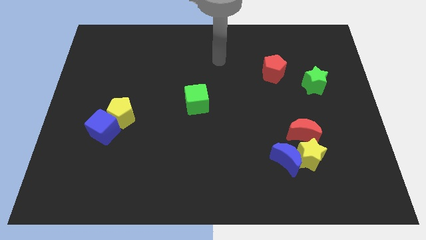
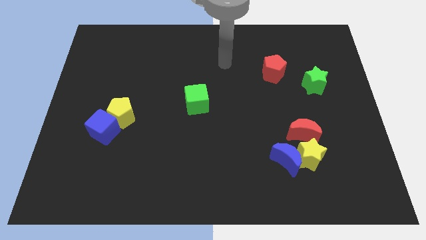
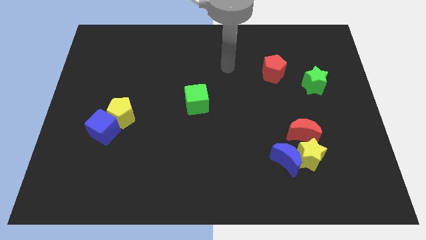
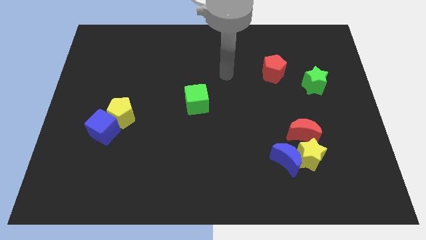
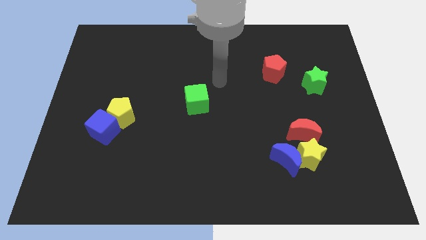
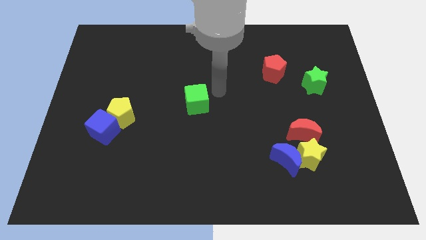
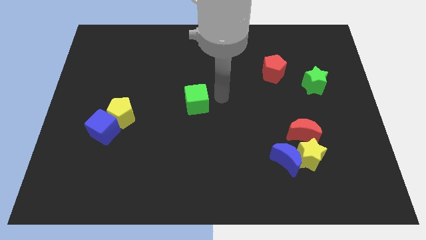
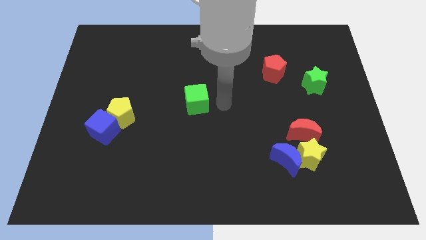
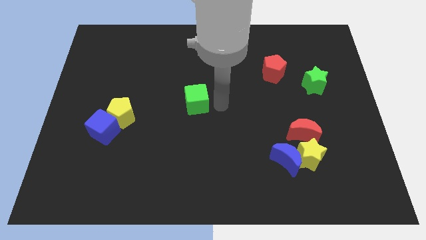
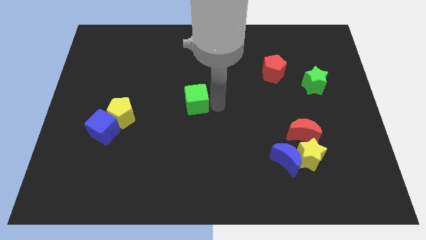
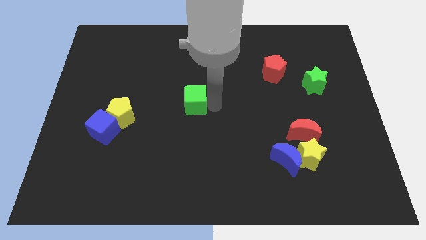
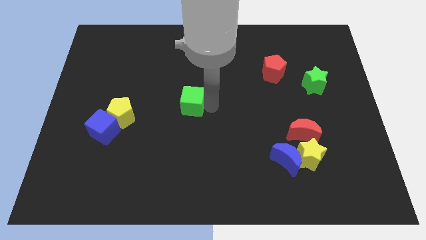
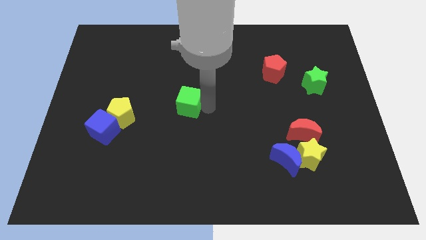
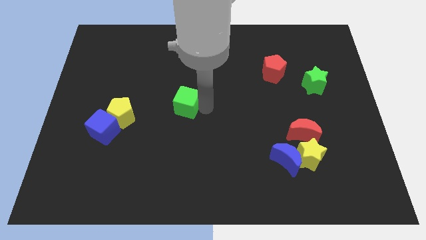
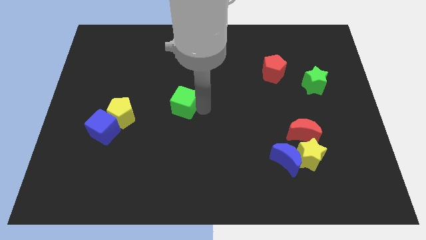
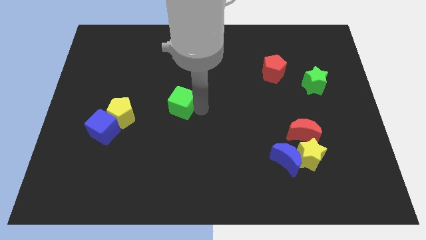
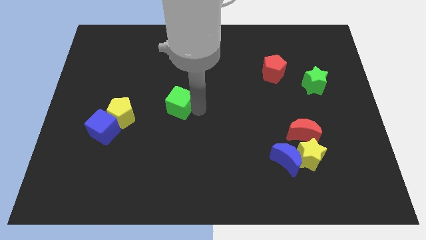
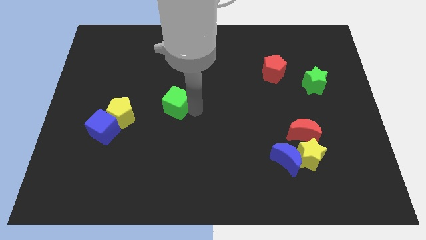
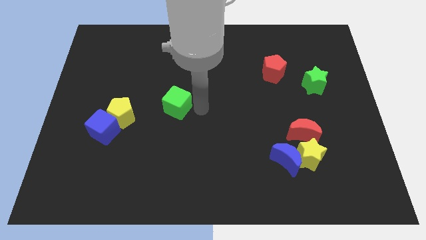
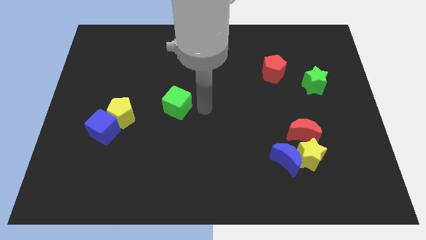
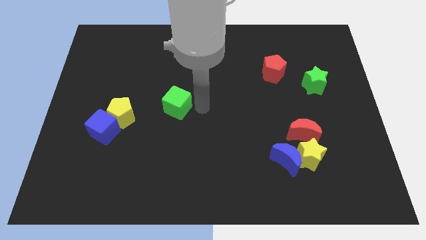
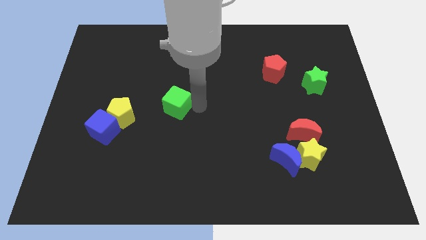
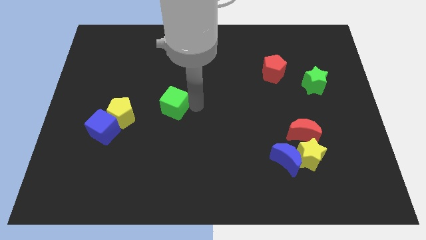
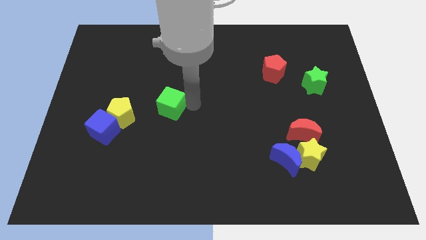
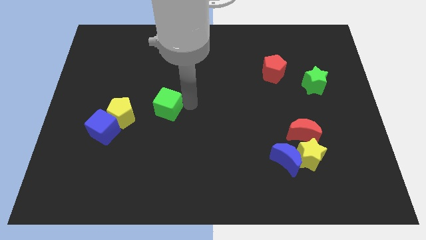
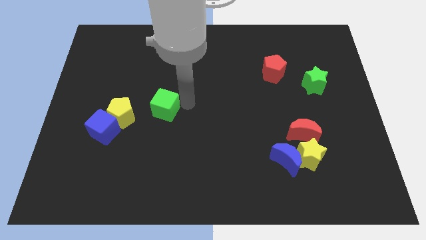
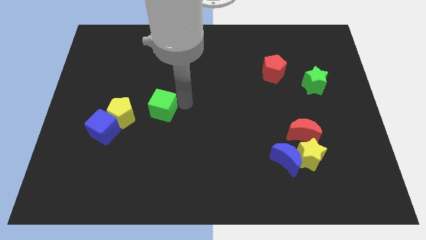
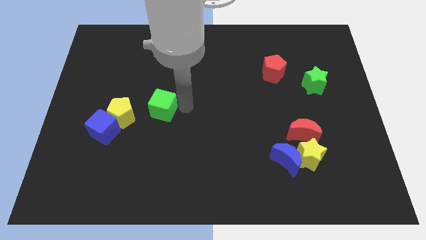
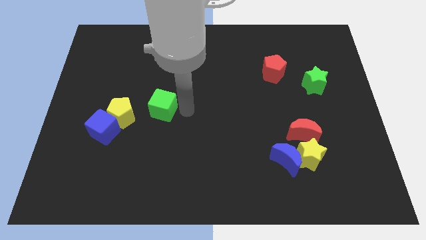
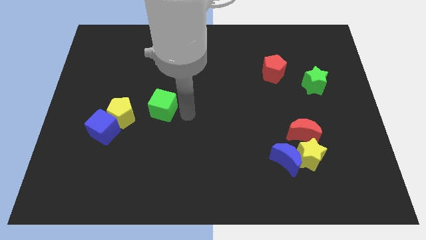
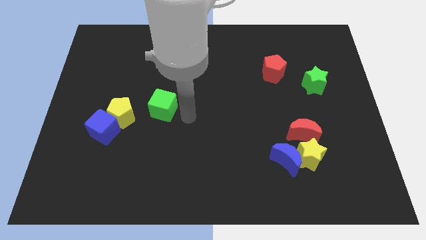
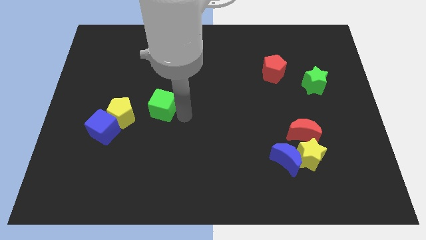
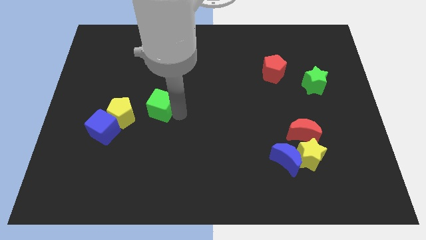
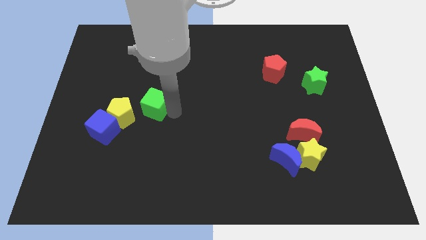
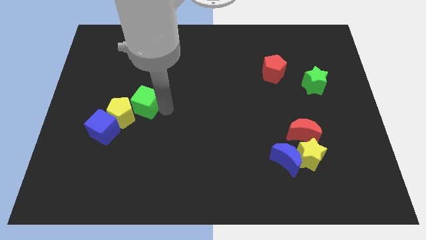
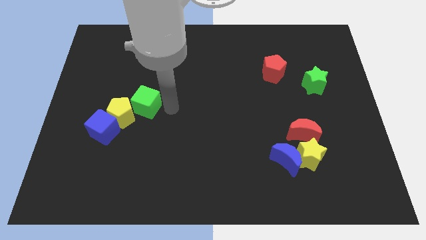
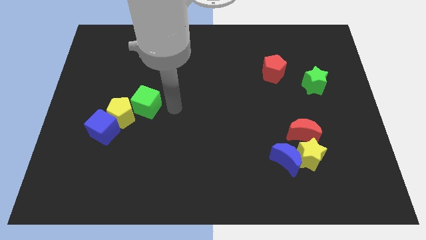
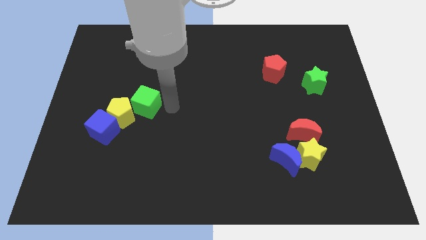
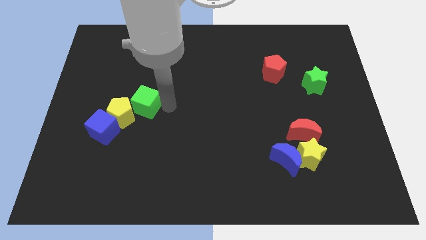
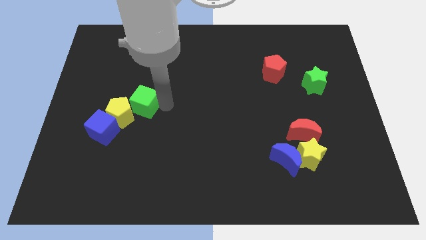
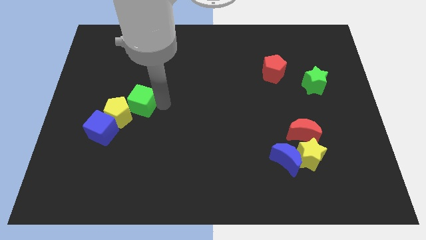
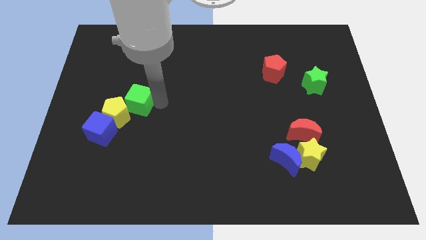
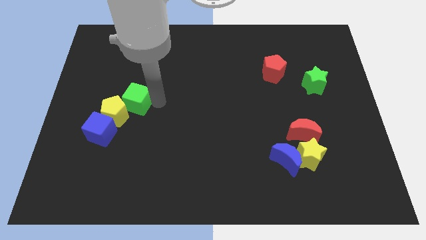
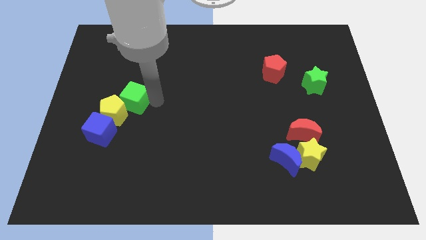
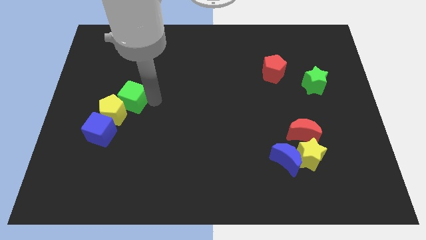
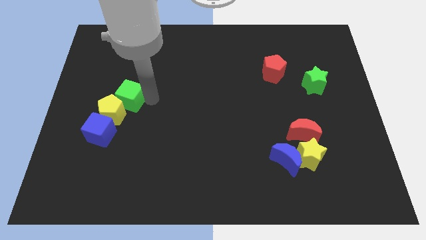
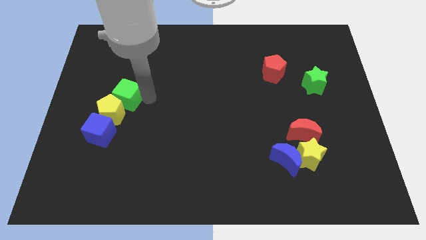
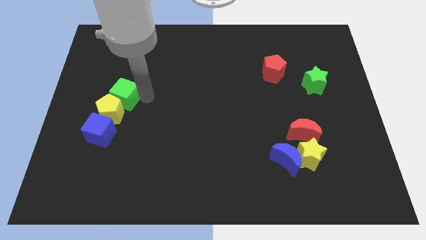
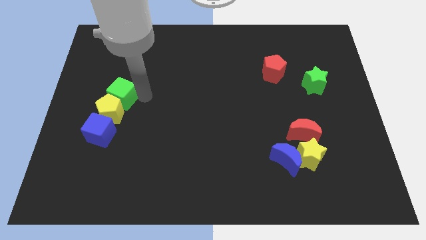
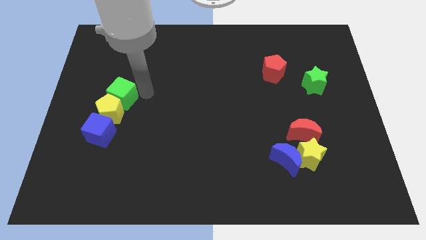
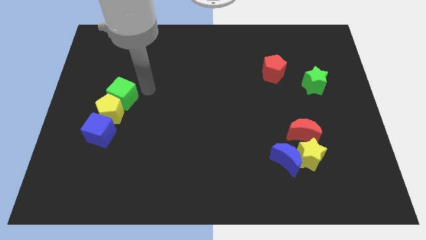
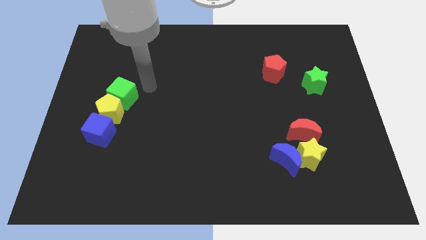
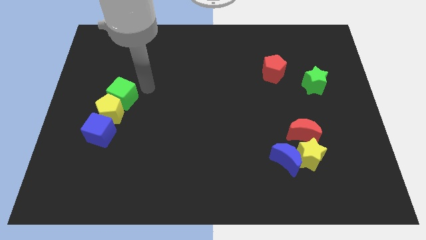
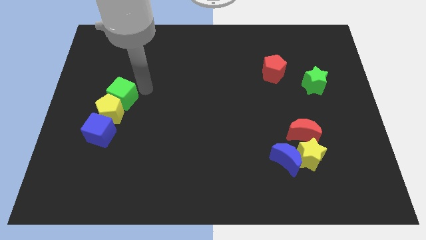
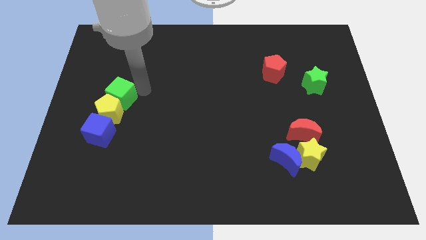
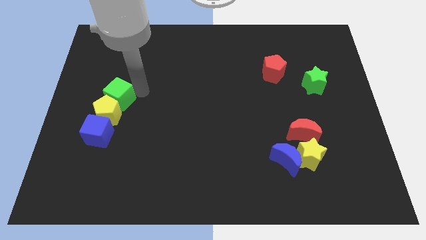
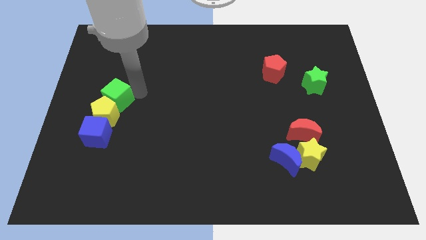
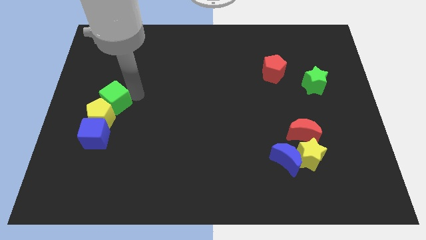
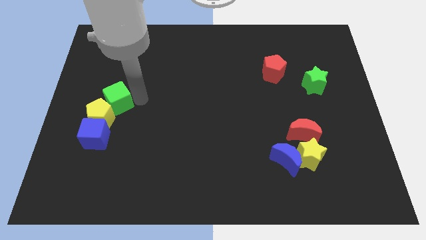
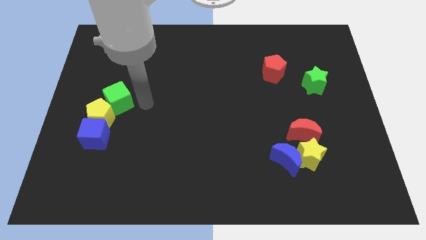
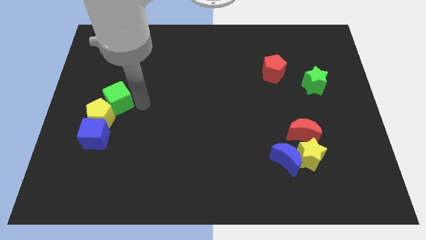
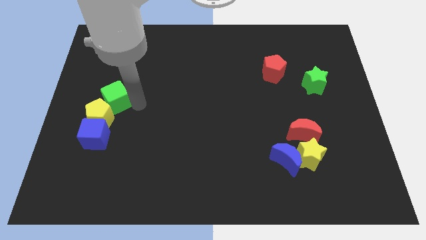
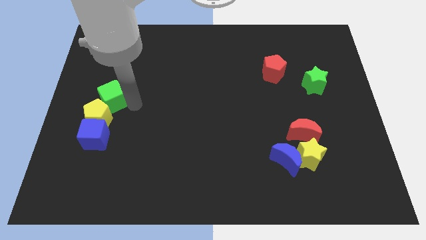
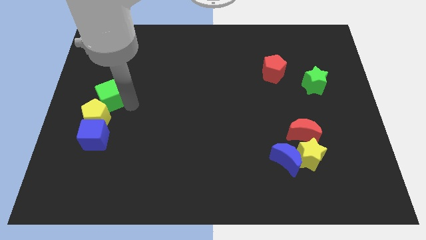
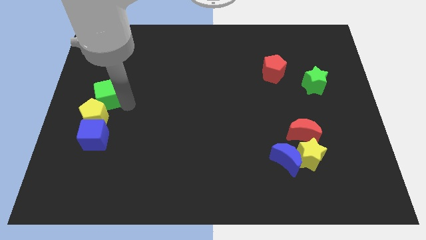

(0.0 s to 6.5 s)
put the green cube to the left side

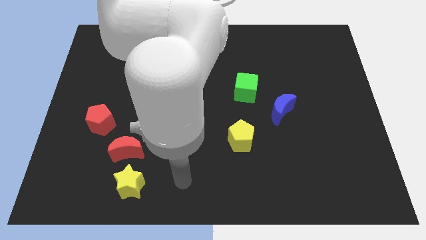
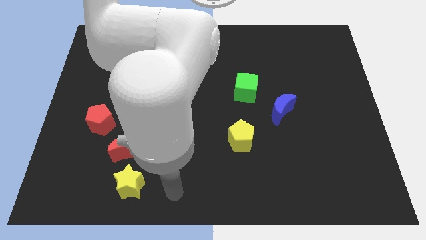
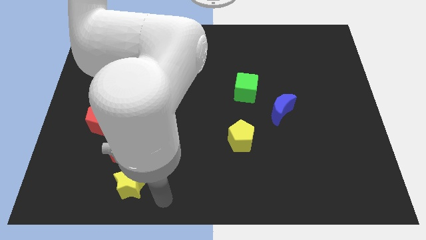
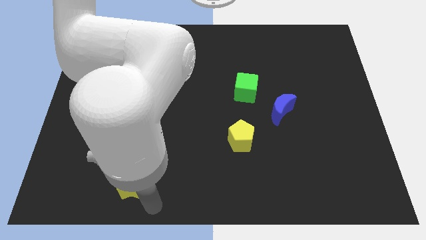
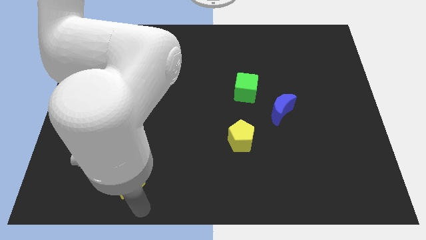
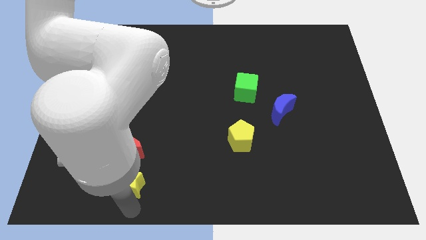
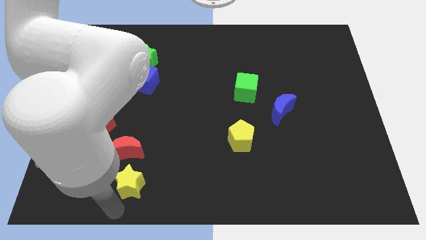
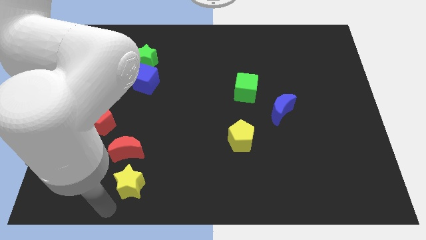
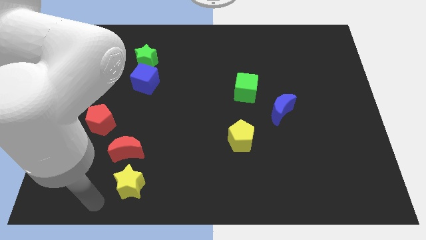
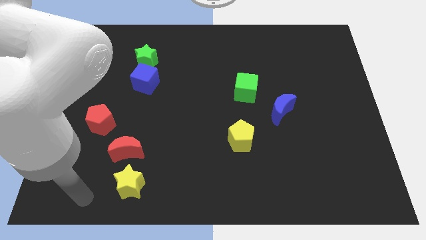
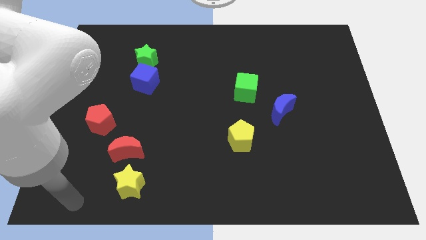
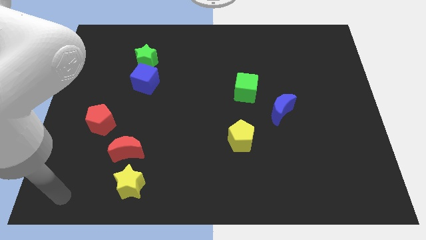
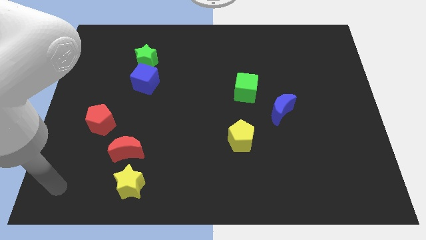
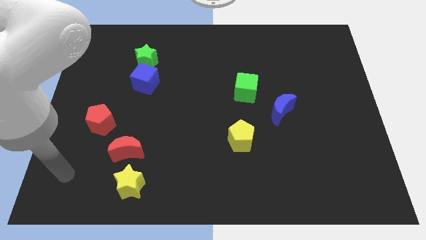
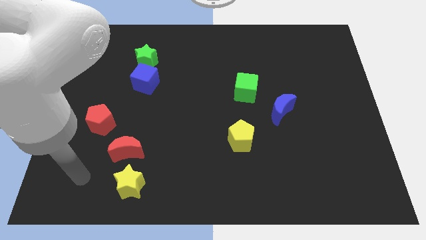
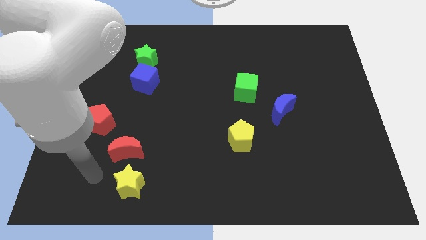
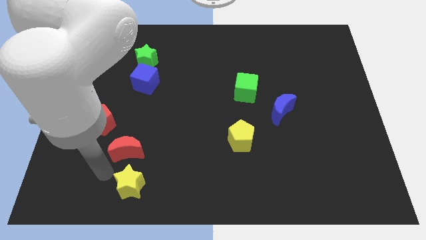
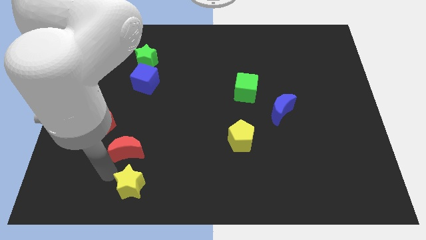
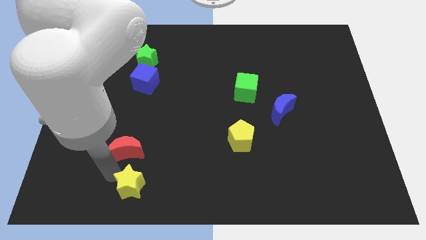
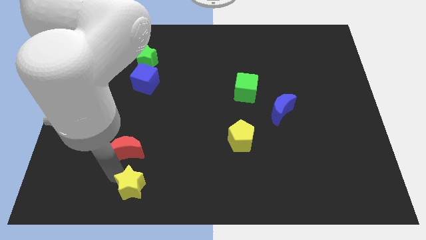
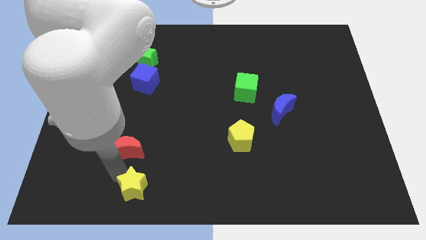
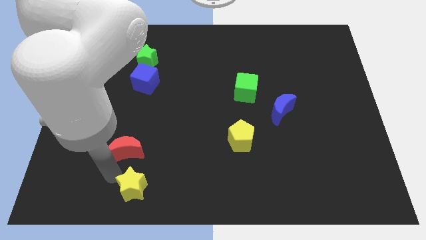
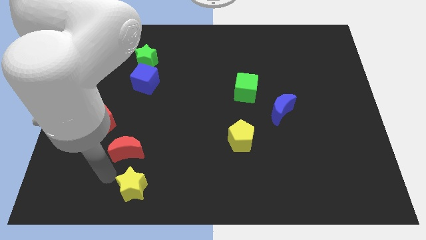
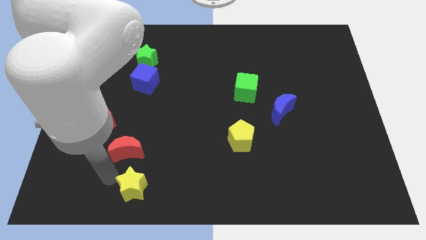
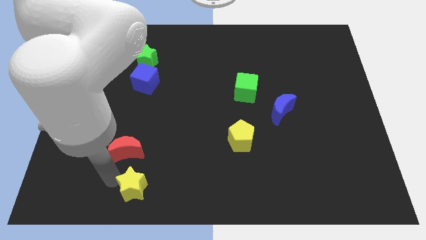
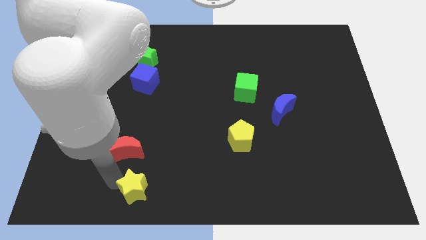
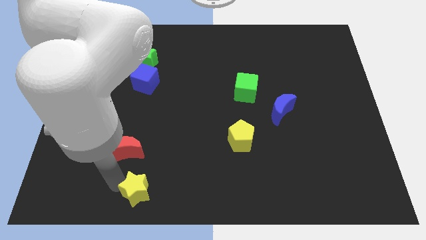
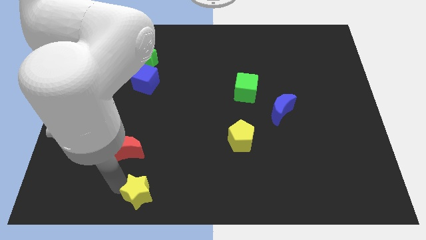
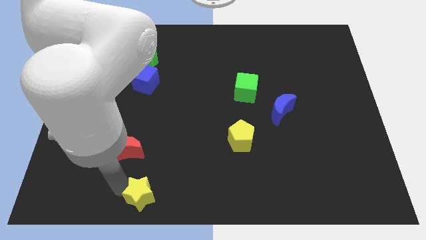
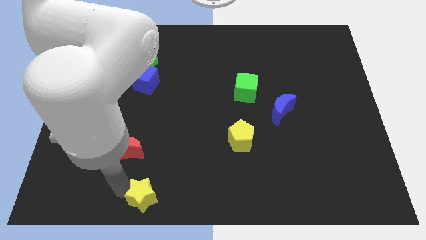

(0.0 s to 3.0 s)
put the yellow star to the bottom
